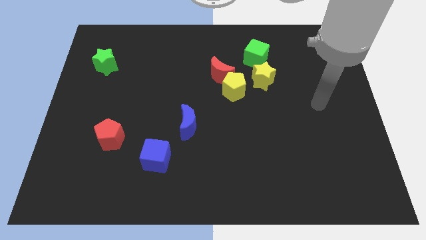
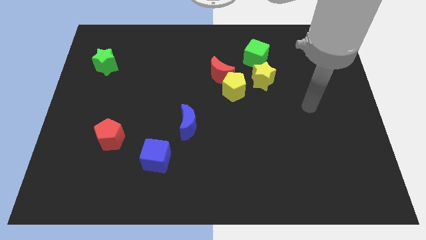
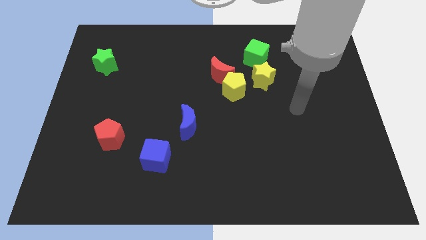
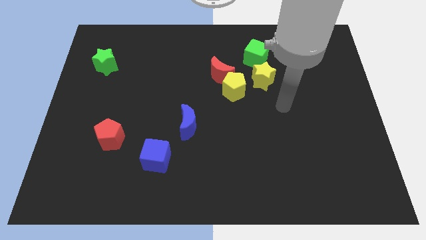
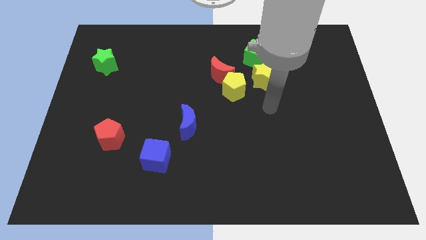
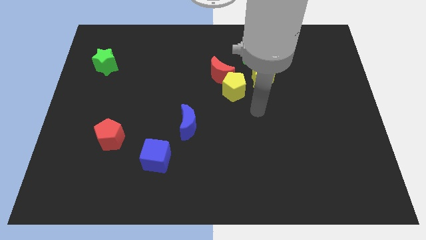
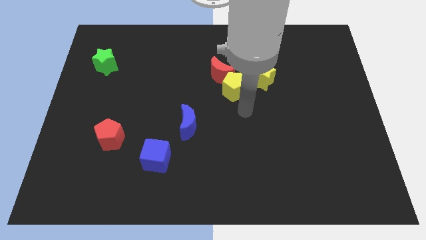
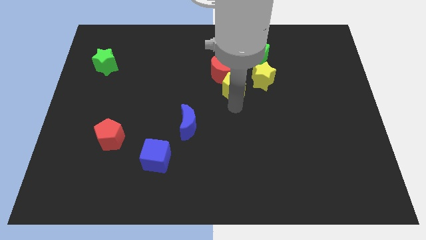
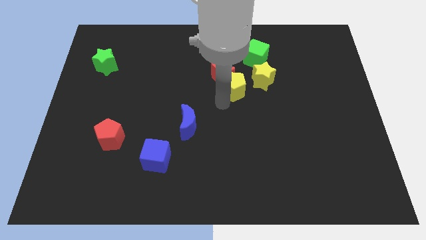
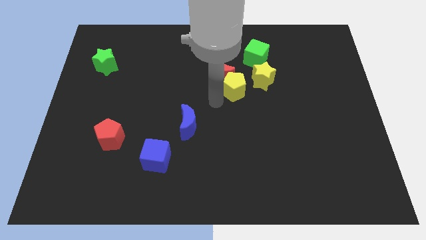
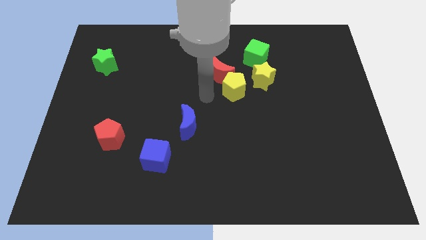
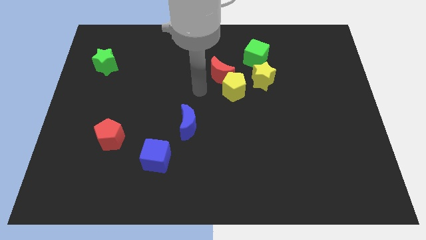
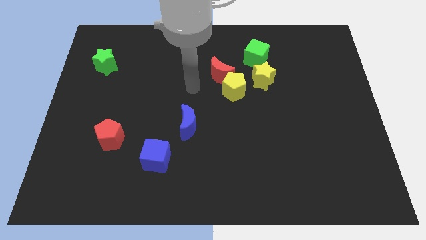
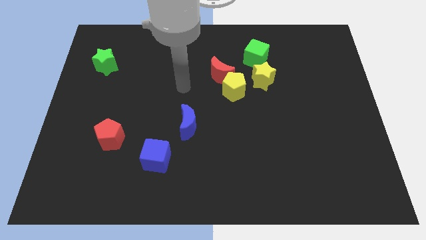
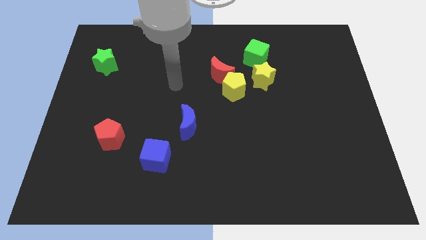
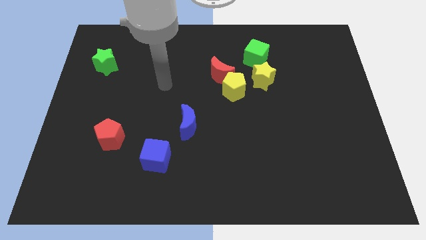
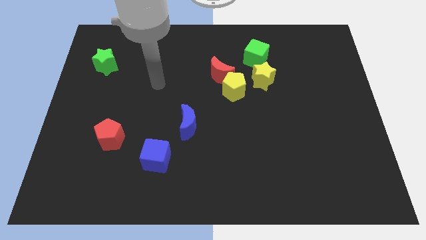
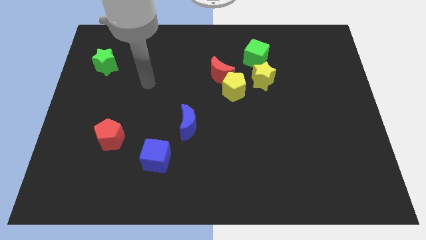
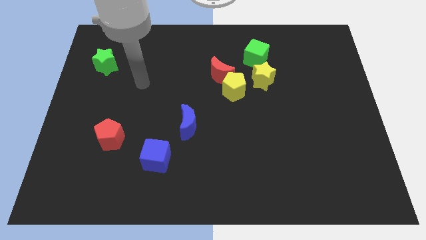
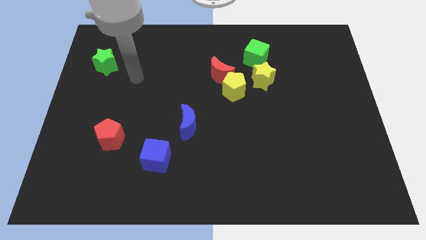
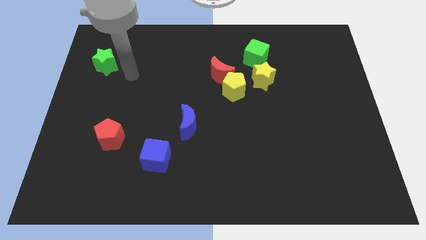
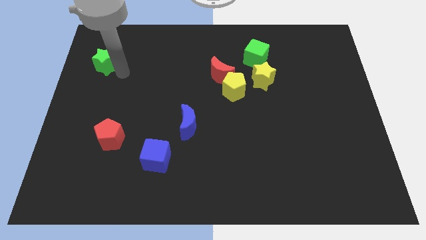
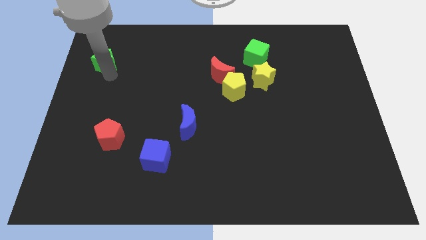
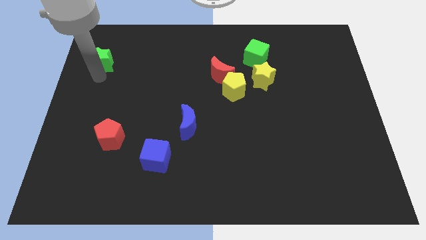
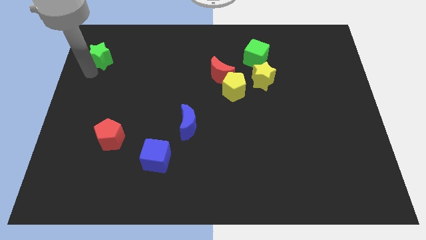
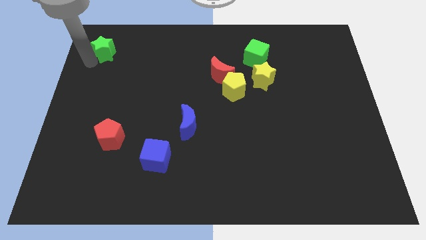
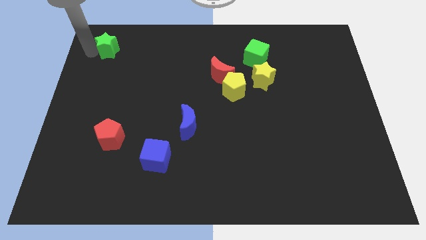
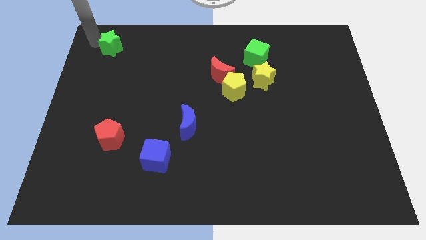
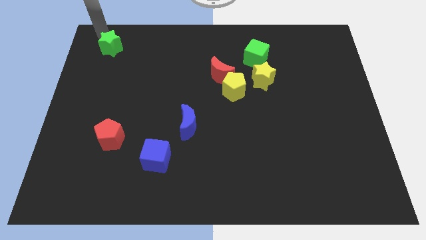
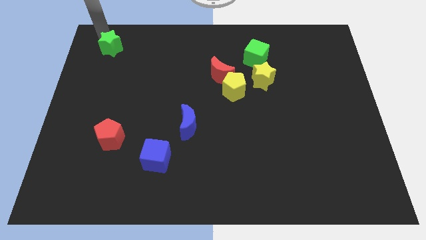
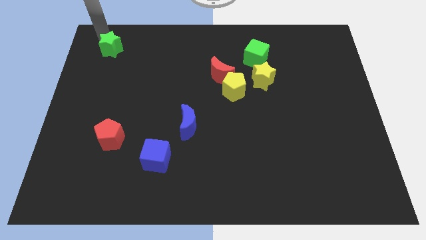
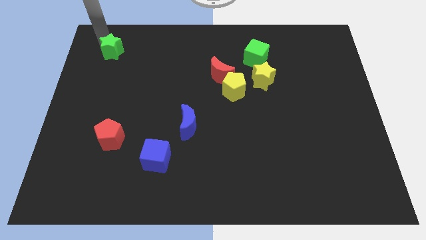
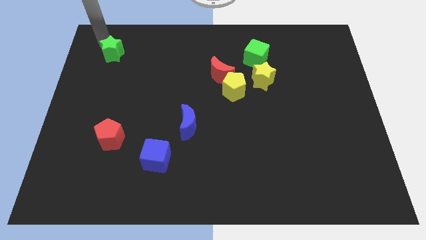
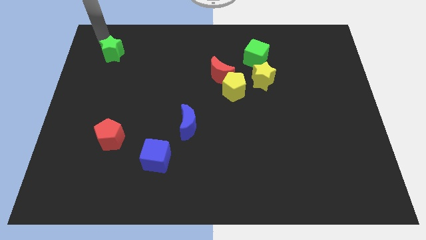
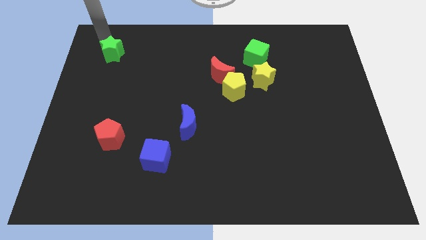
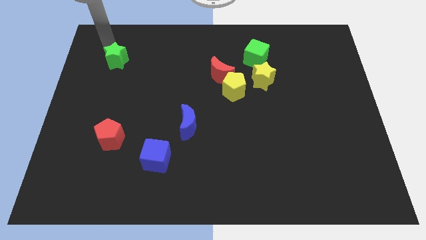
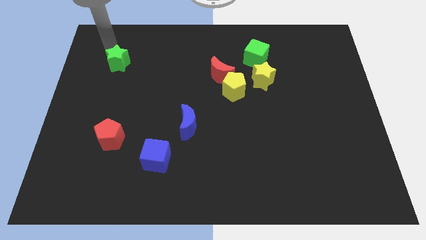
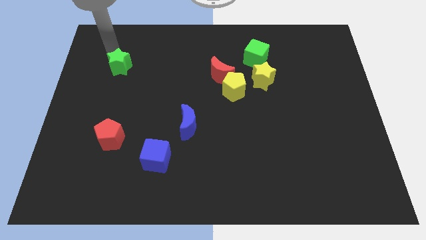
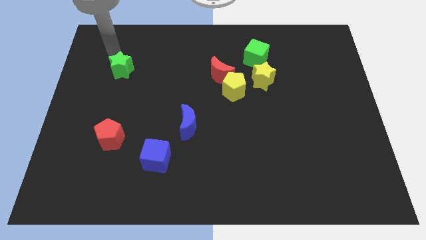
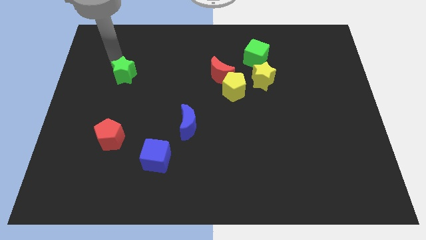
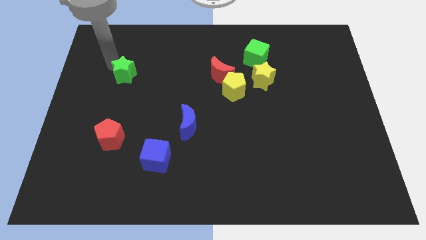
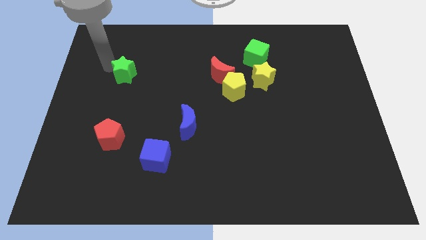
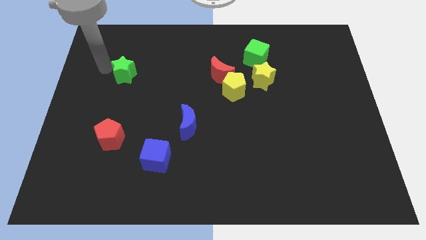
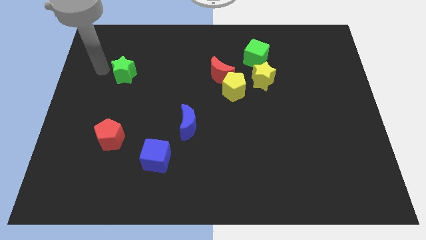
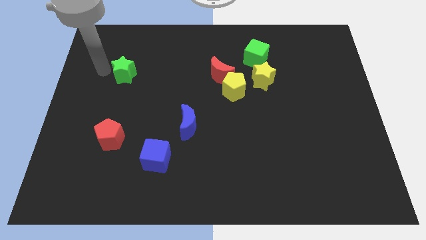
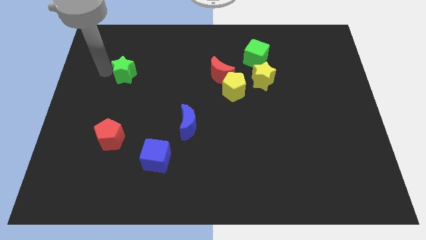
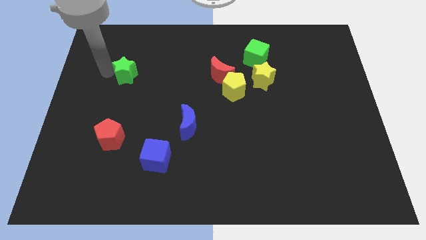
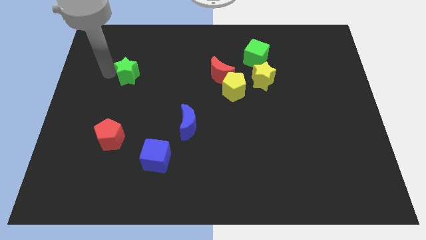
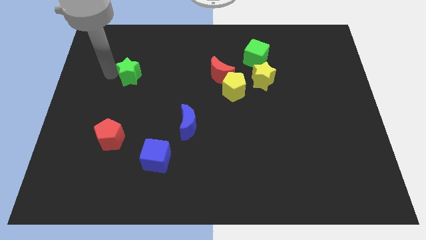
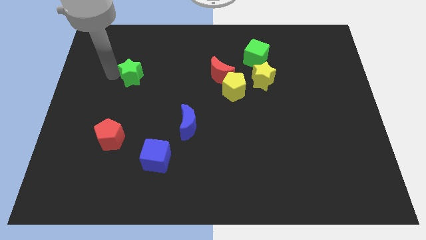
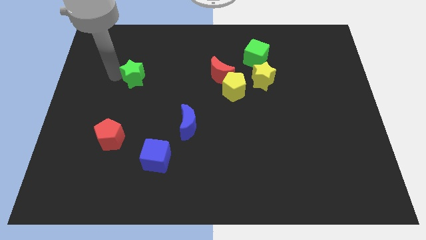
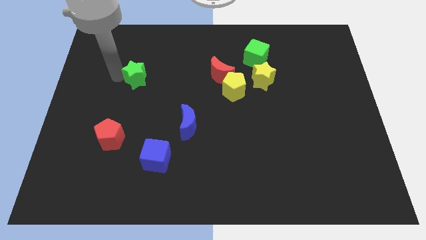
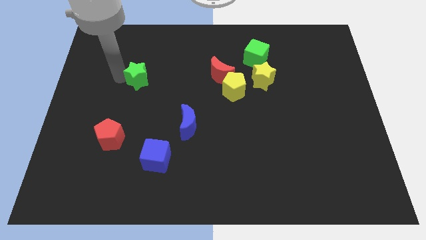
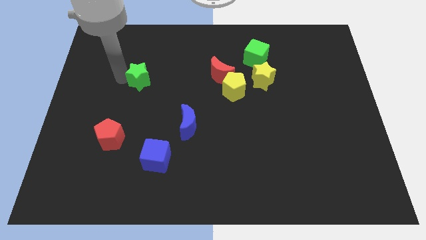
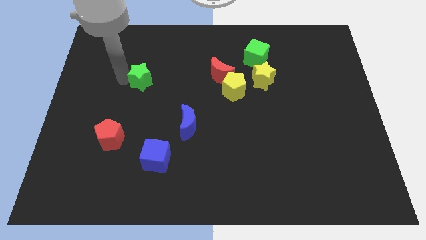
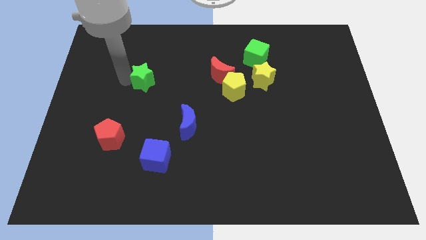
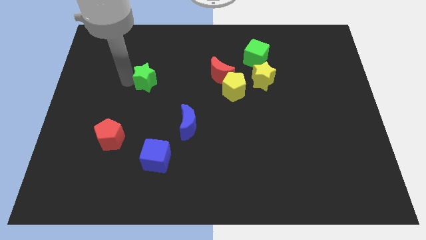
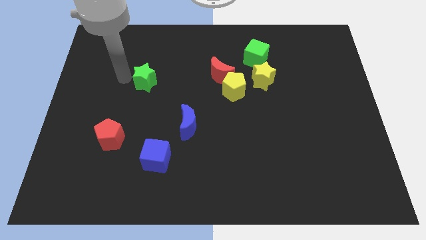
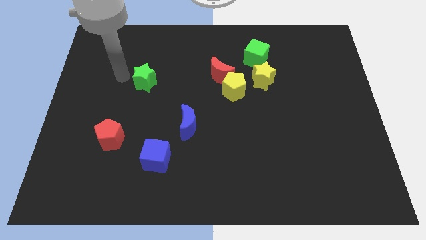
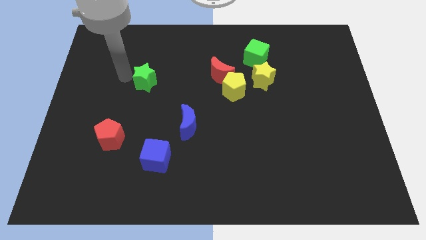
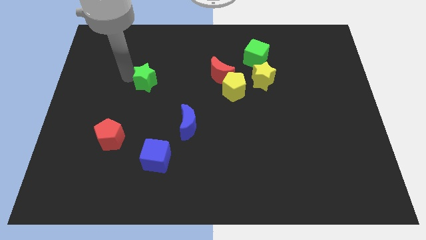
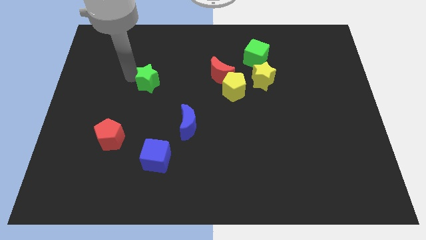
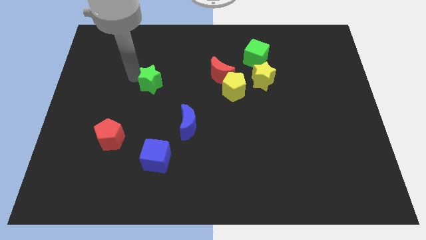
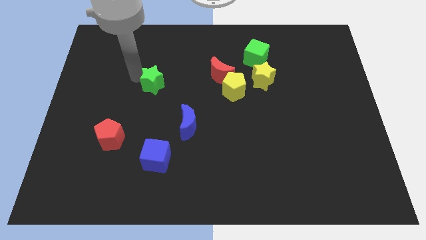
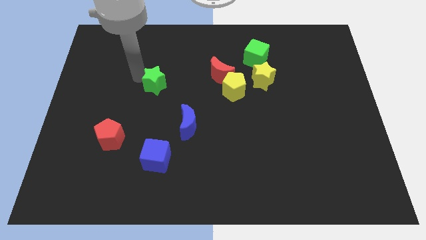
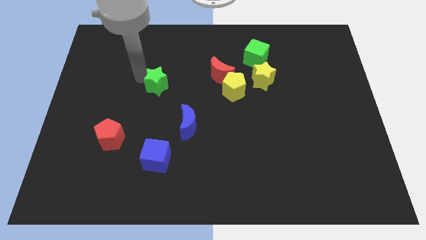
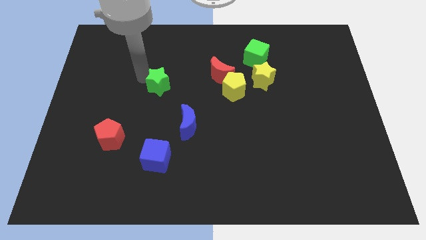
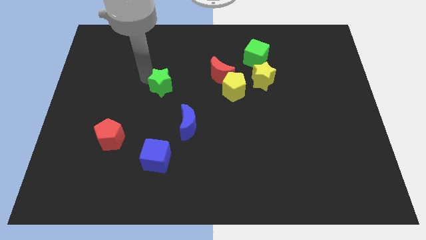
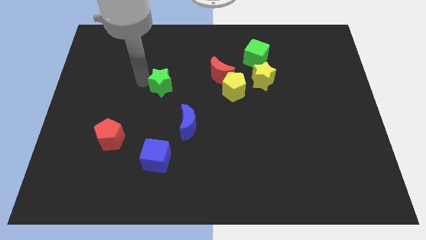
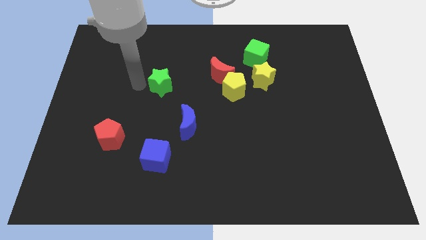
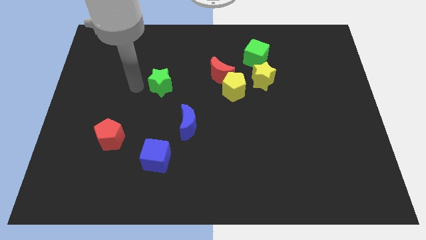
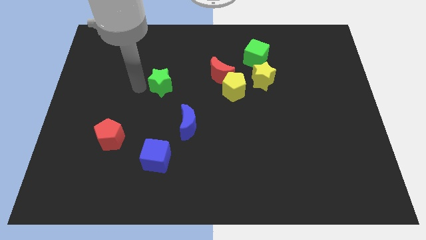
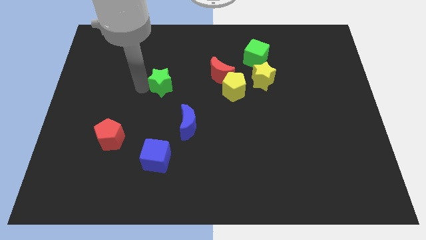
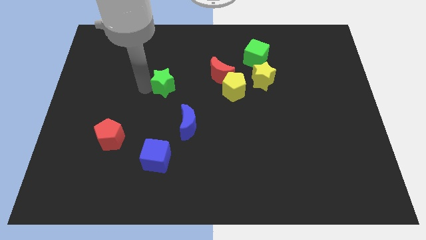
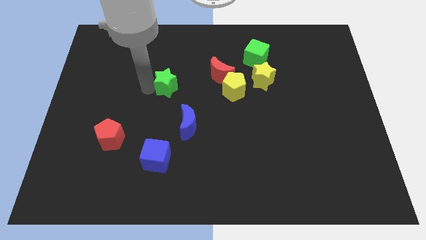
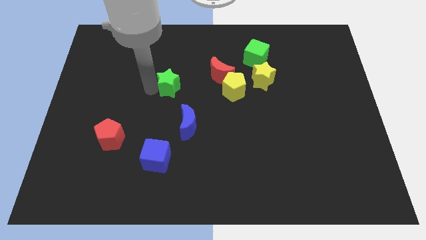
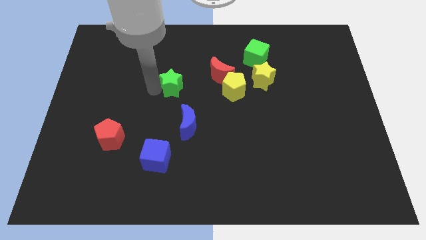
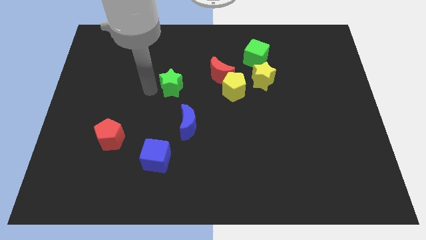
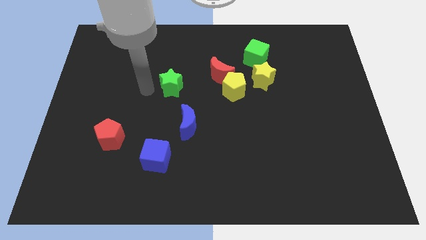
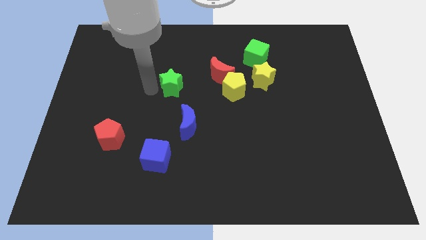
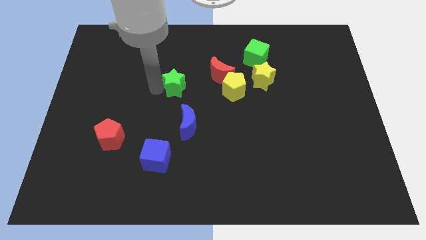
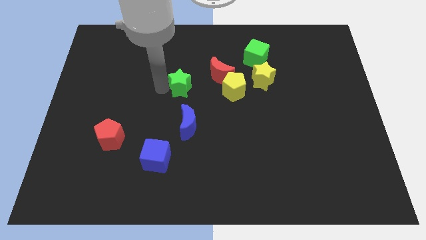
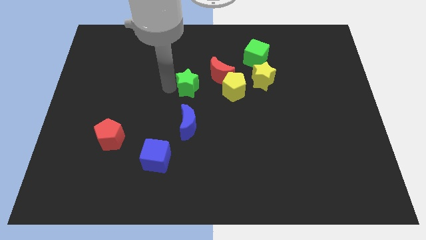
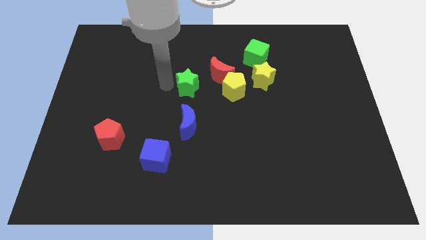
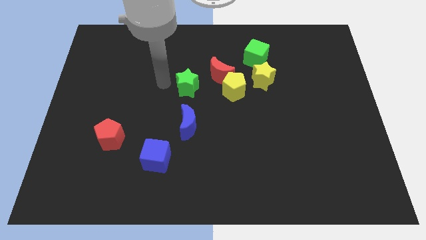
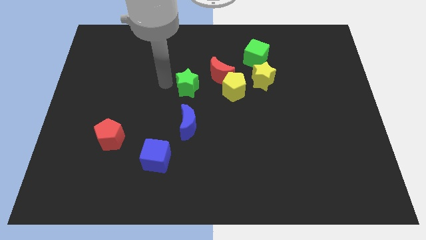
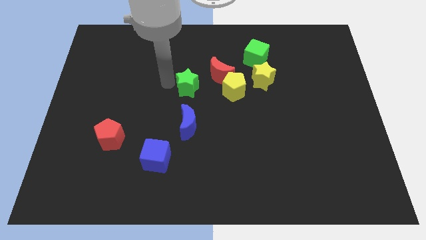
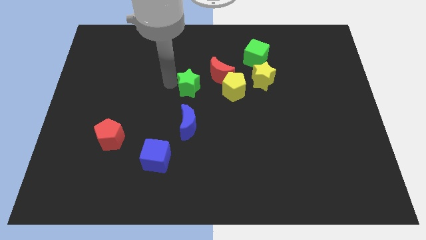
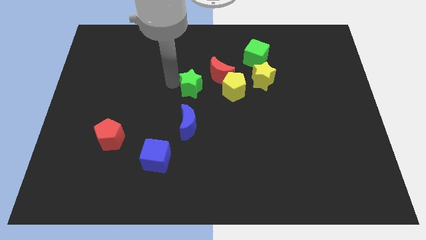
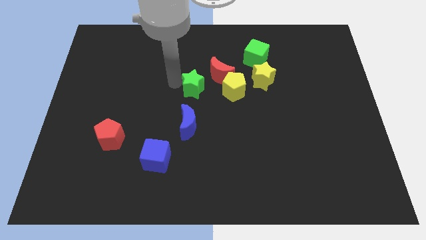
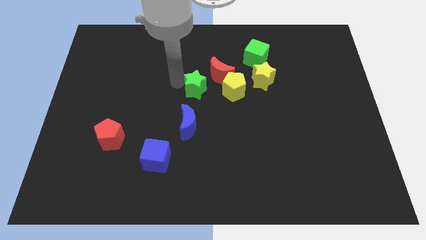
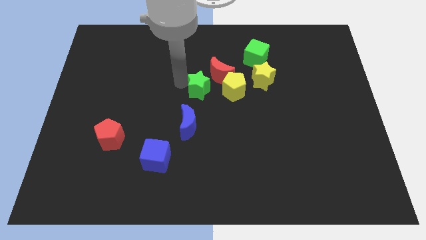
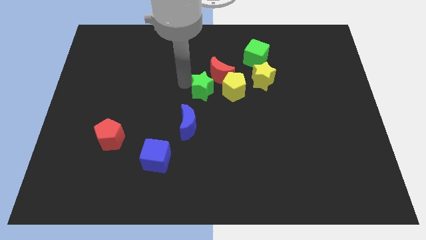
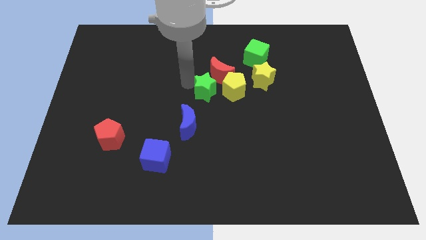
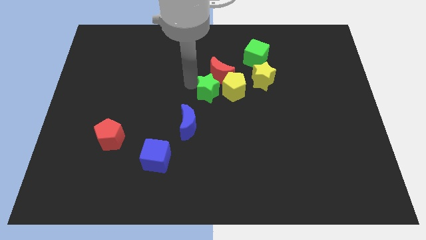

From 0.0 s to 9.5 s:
put the green star close to the yellow pentagon
